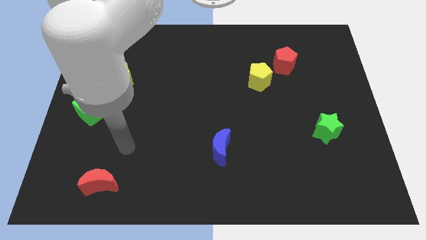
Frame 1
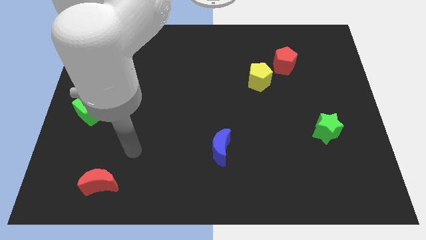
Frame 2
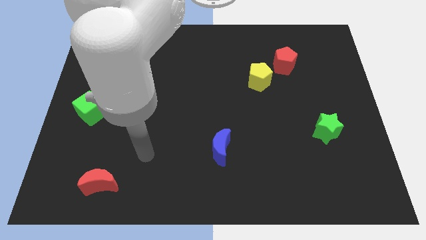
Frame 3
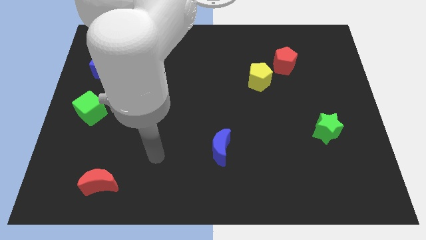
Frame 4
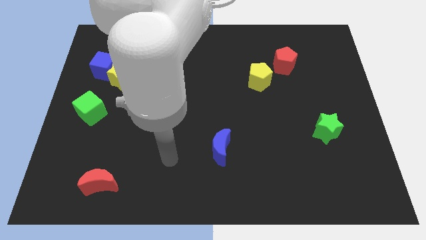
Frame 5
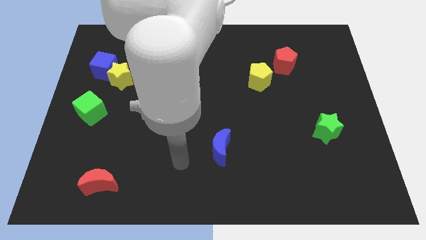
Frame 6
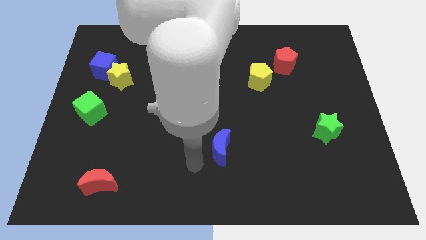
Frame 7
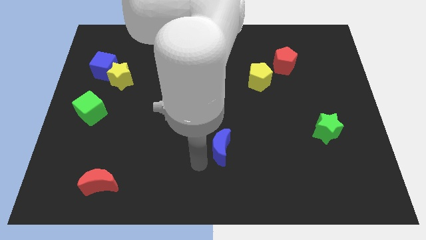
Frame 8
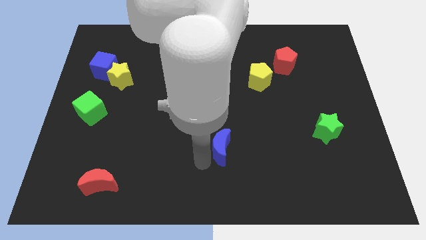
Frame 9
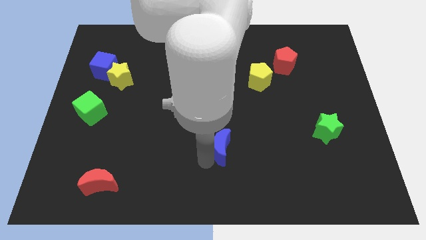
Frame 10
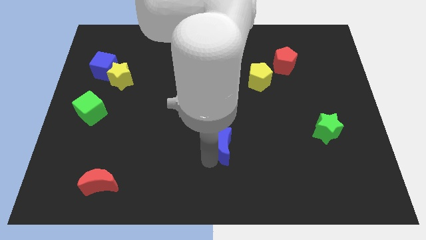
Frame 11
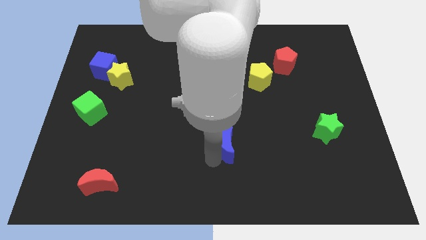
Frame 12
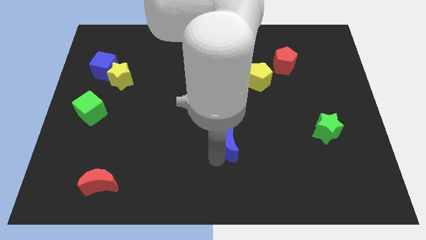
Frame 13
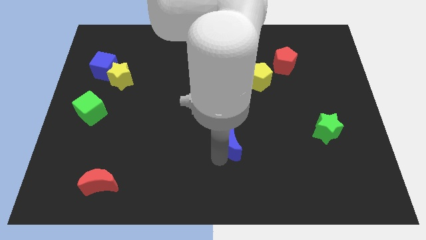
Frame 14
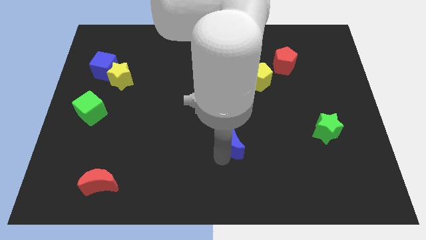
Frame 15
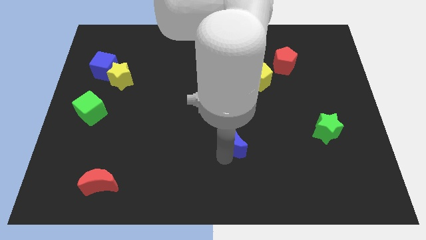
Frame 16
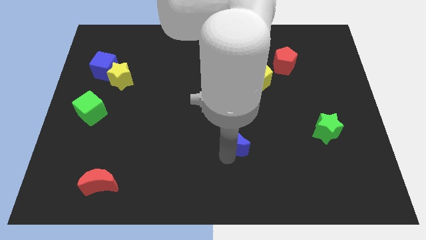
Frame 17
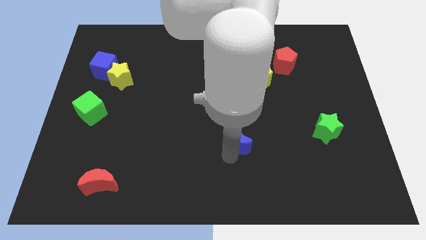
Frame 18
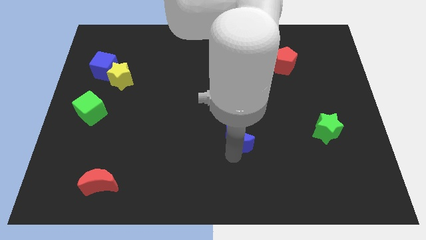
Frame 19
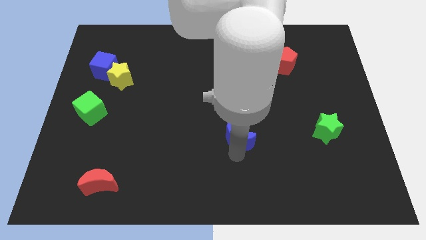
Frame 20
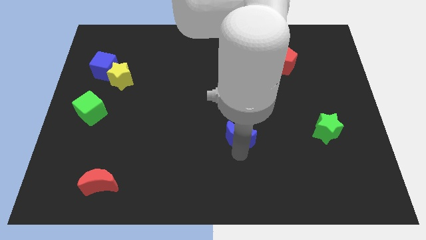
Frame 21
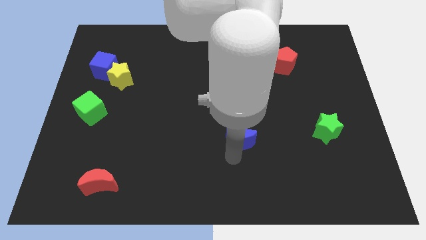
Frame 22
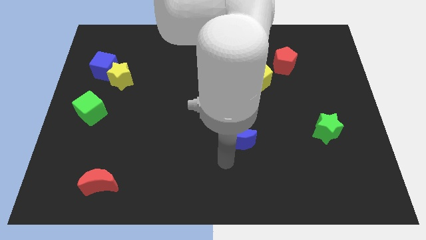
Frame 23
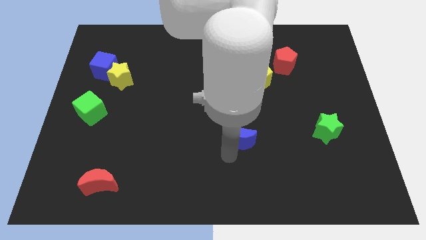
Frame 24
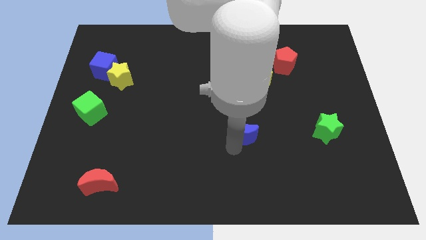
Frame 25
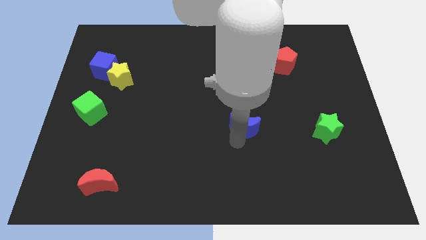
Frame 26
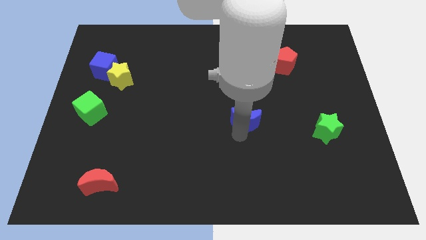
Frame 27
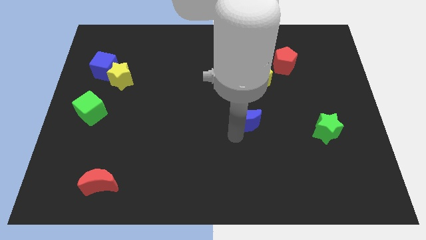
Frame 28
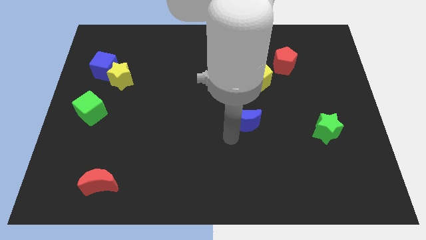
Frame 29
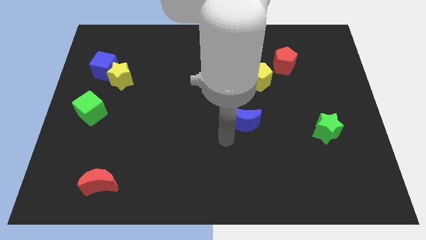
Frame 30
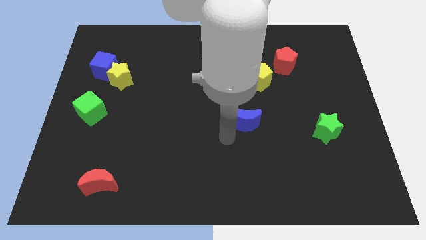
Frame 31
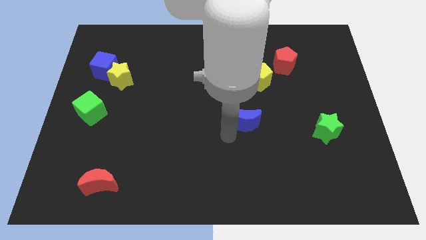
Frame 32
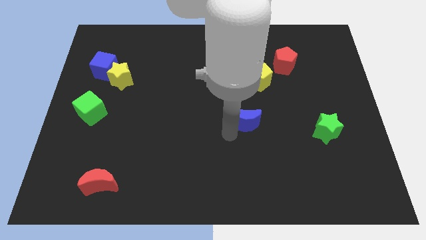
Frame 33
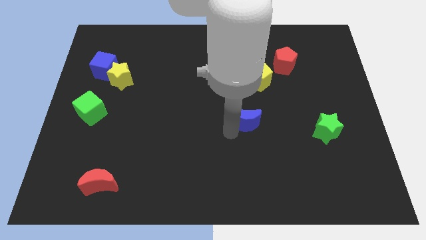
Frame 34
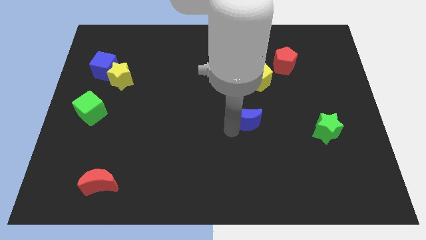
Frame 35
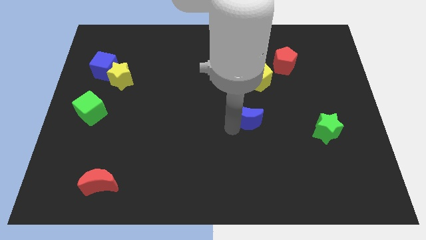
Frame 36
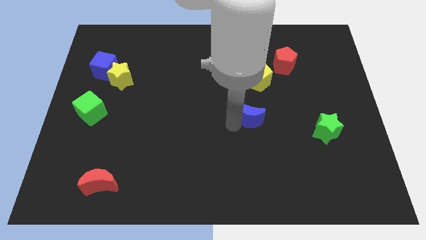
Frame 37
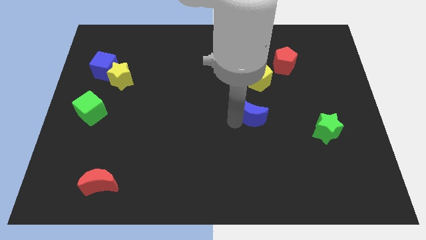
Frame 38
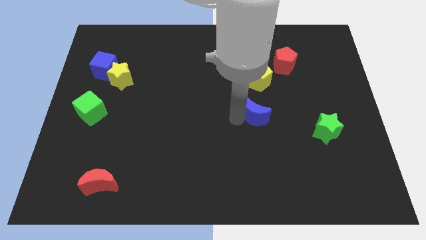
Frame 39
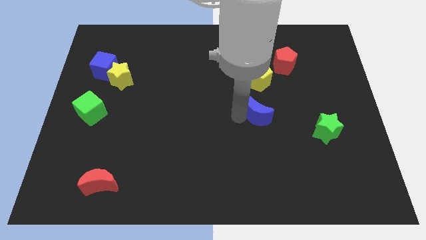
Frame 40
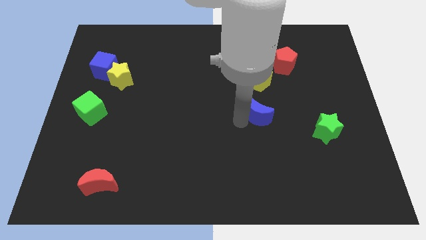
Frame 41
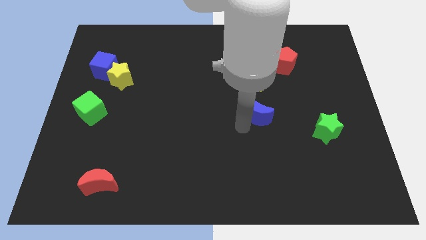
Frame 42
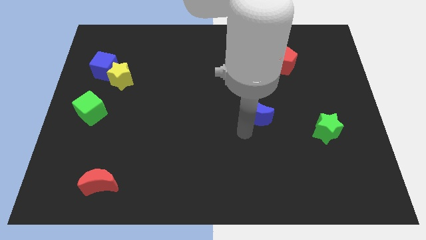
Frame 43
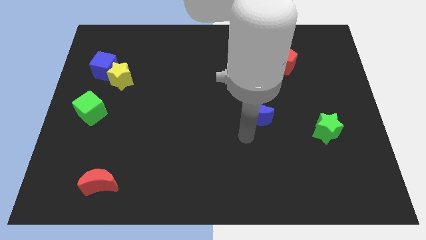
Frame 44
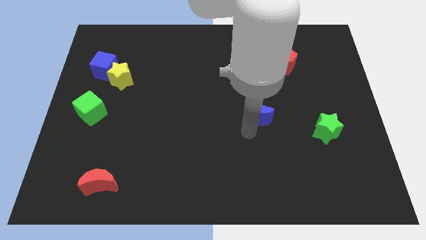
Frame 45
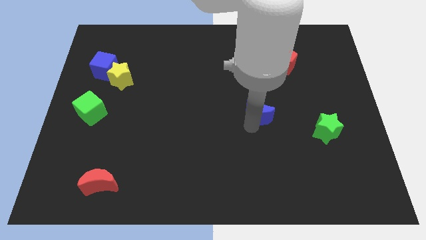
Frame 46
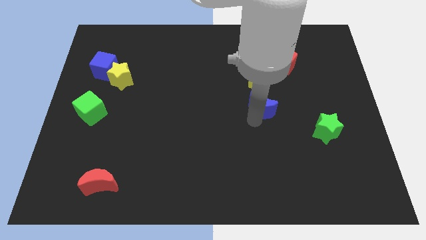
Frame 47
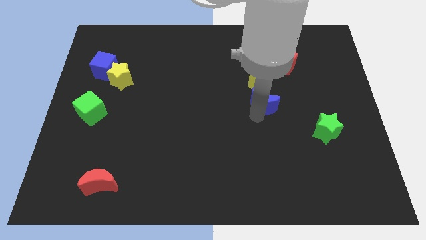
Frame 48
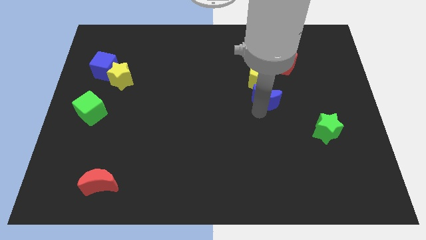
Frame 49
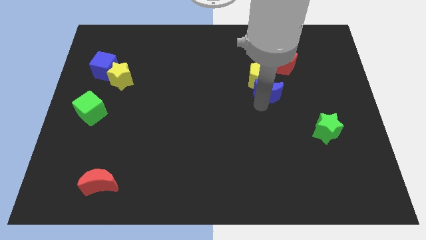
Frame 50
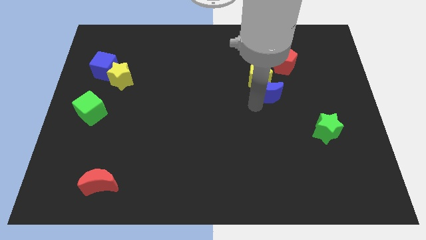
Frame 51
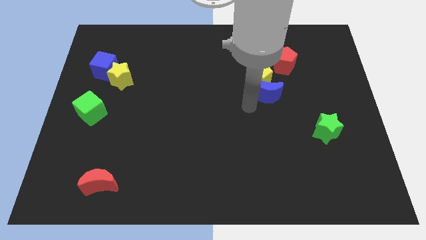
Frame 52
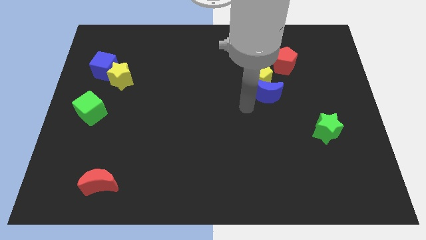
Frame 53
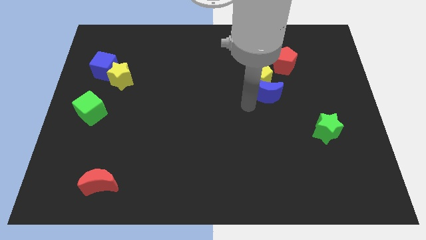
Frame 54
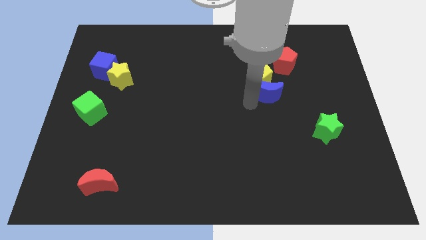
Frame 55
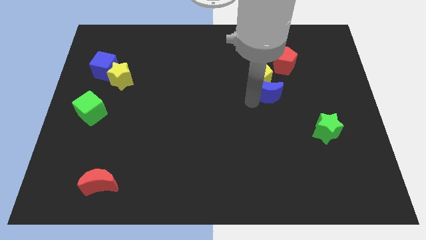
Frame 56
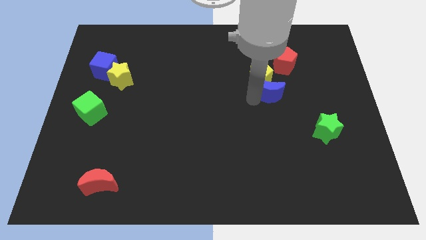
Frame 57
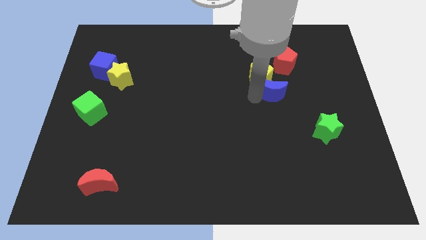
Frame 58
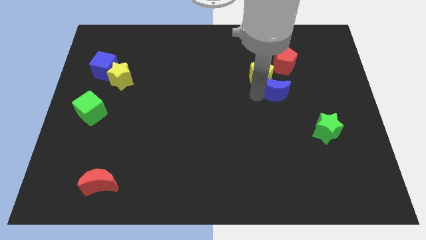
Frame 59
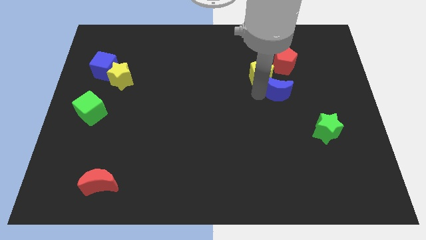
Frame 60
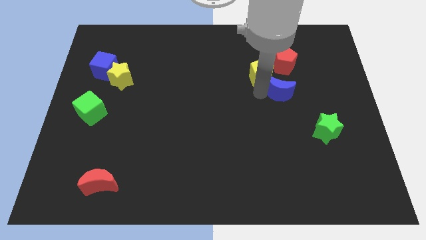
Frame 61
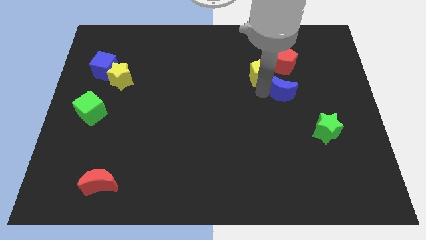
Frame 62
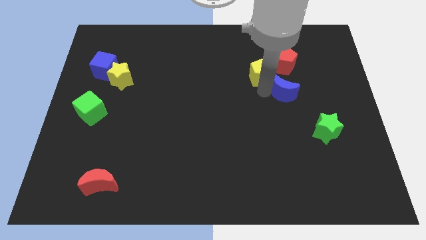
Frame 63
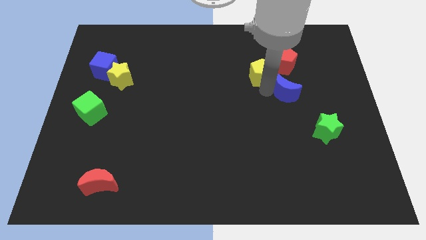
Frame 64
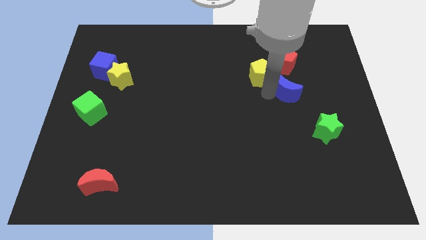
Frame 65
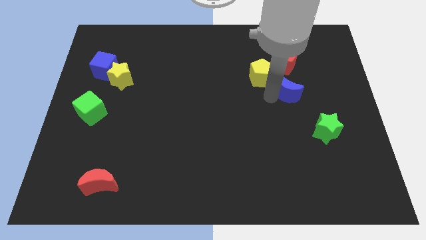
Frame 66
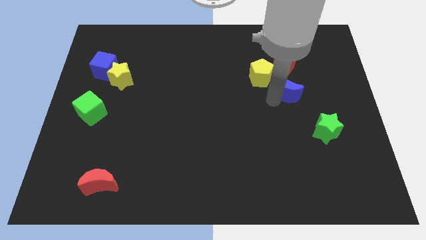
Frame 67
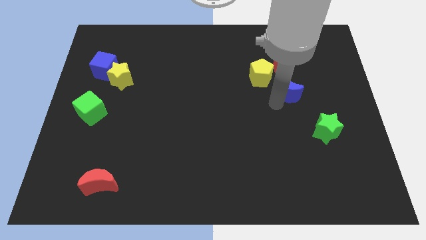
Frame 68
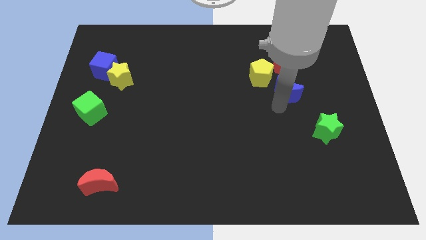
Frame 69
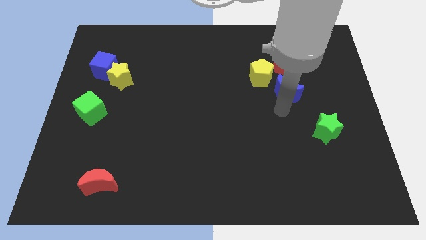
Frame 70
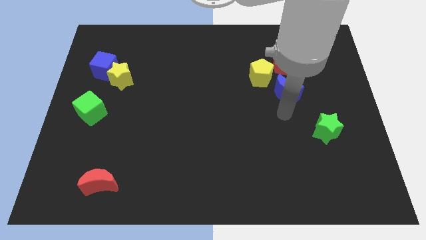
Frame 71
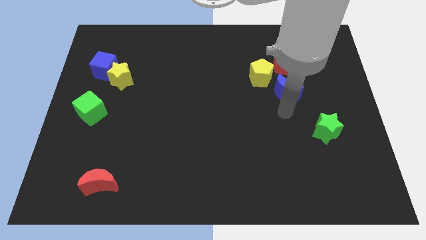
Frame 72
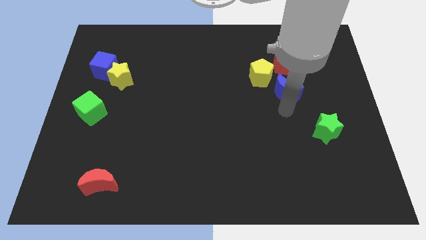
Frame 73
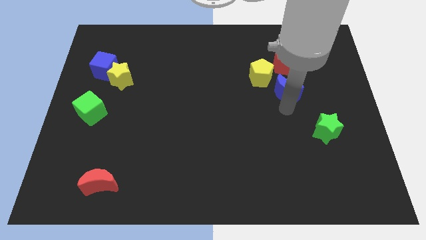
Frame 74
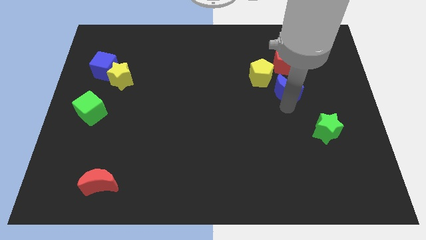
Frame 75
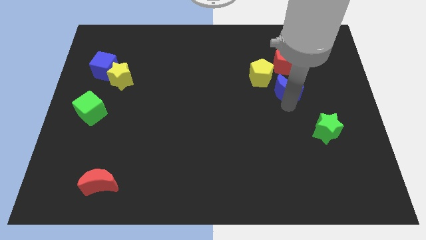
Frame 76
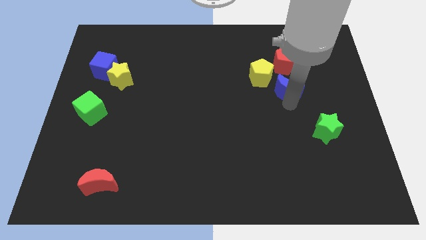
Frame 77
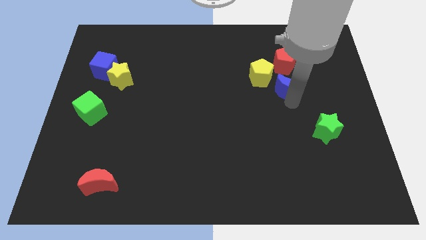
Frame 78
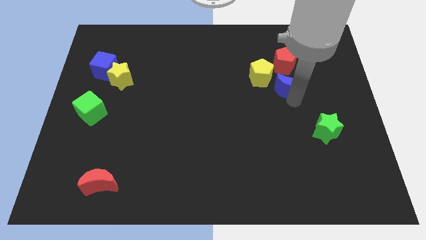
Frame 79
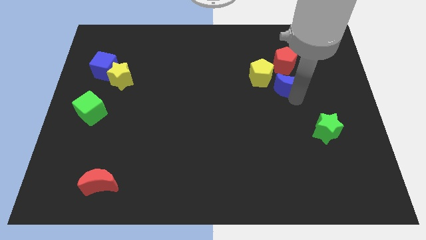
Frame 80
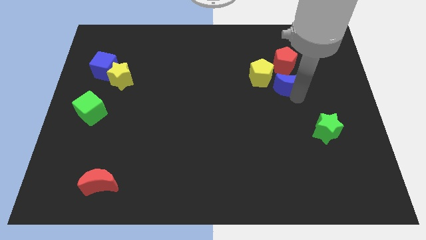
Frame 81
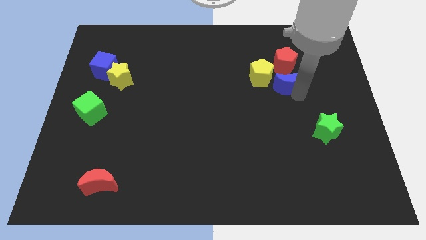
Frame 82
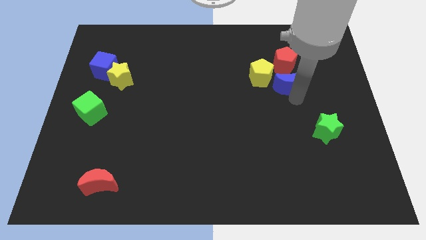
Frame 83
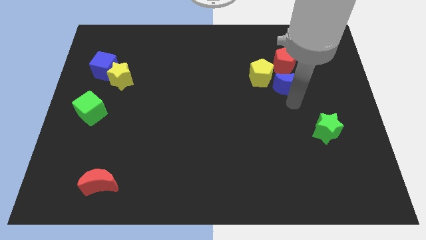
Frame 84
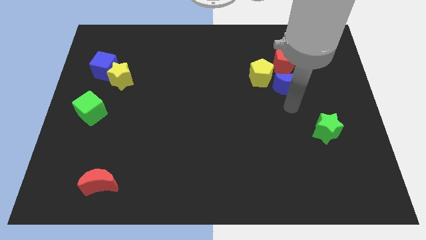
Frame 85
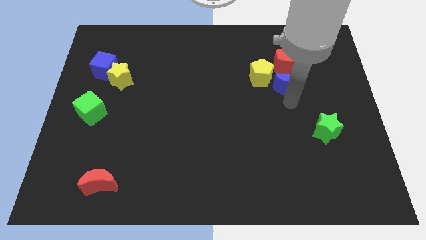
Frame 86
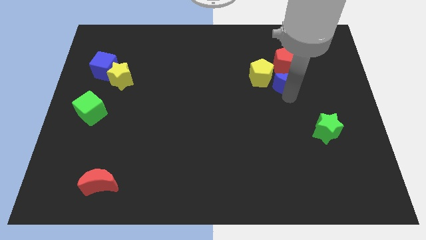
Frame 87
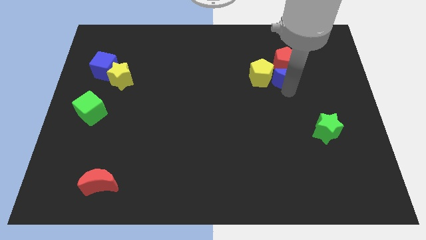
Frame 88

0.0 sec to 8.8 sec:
put the blue moon close to the red pentagon
